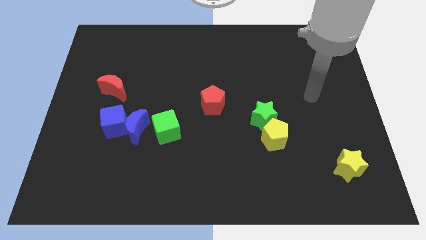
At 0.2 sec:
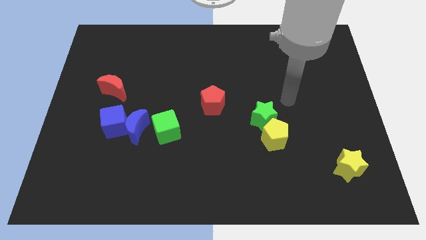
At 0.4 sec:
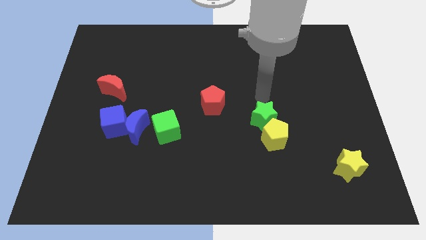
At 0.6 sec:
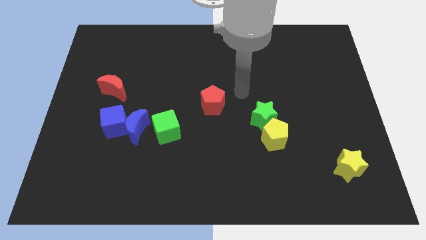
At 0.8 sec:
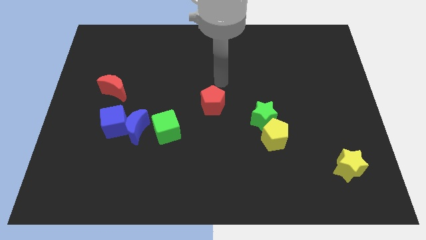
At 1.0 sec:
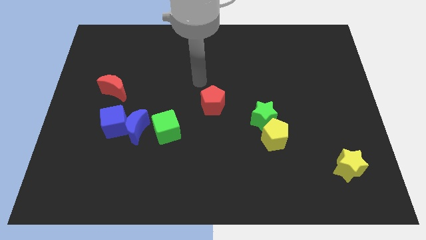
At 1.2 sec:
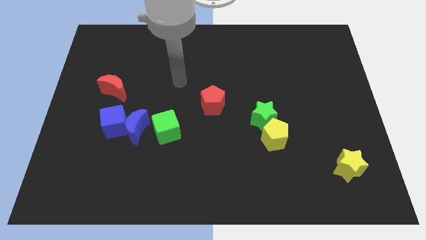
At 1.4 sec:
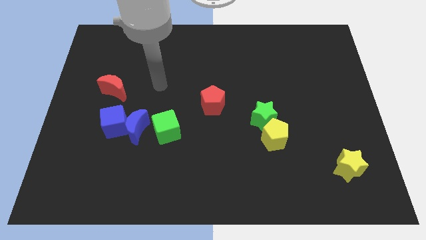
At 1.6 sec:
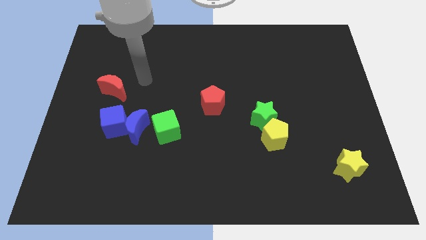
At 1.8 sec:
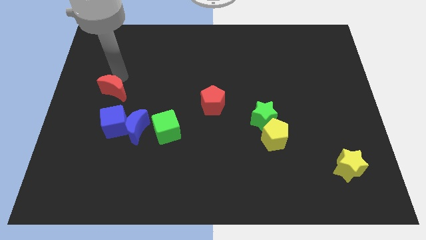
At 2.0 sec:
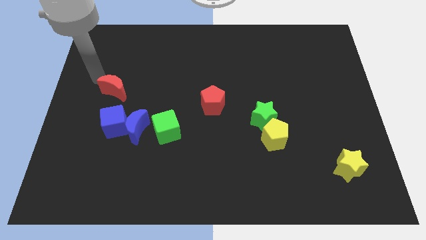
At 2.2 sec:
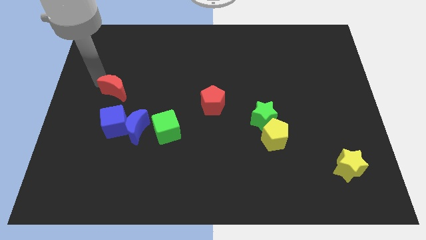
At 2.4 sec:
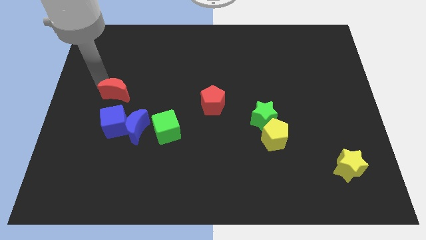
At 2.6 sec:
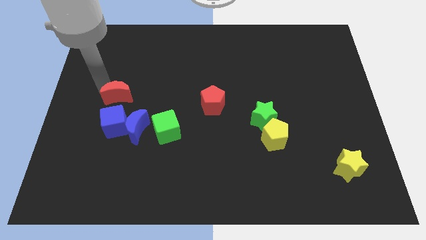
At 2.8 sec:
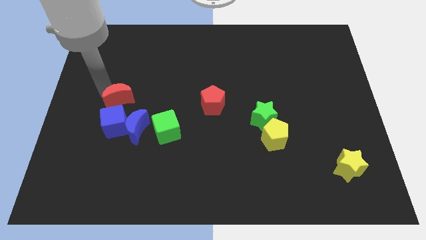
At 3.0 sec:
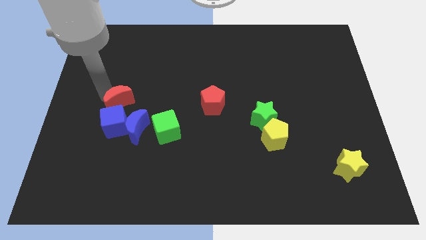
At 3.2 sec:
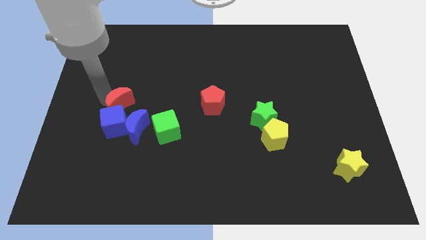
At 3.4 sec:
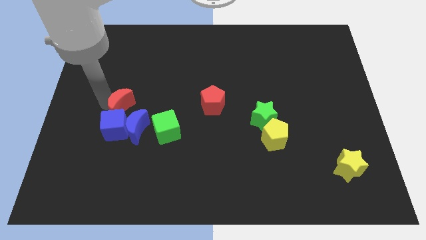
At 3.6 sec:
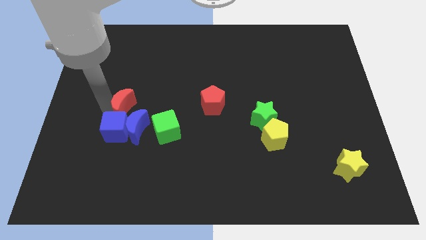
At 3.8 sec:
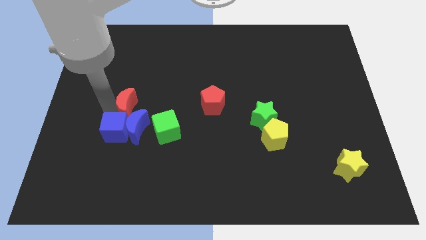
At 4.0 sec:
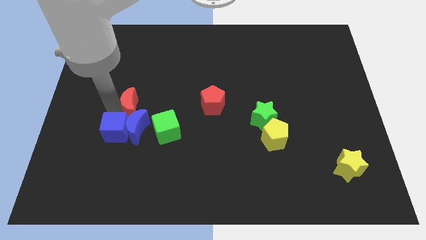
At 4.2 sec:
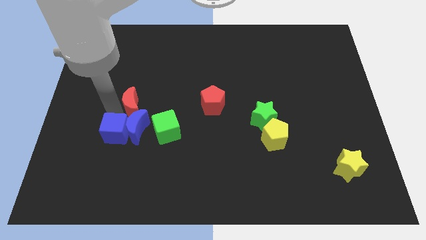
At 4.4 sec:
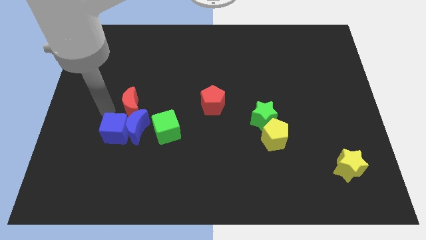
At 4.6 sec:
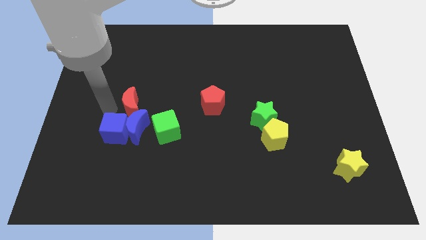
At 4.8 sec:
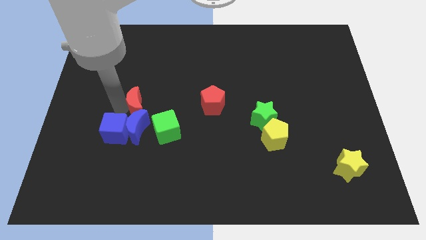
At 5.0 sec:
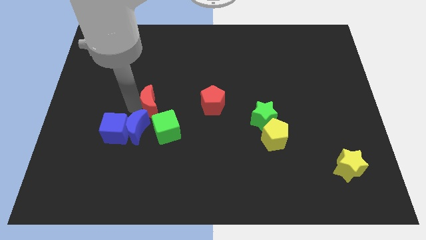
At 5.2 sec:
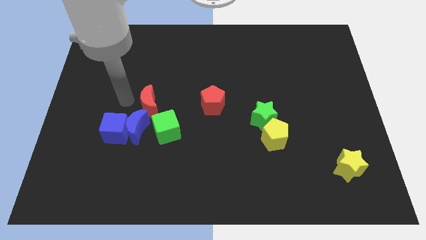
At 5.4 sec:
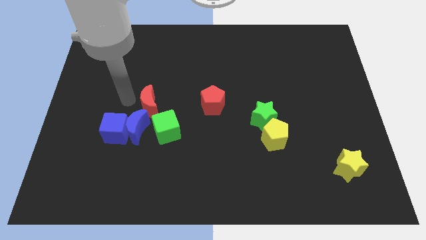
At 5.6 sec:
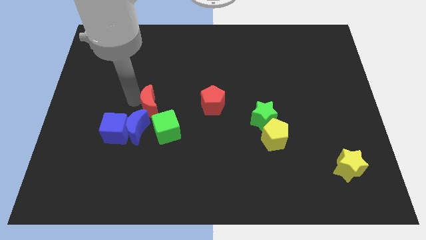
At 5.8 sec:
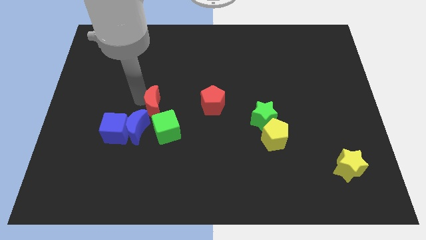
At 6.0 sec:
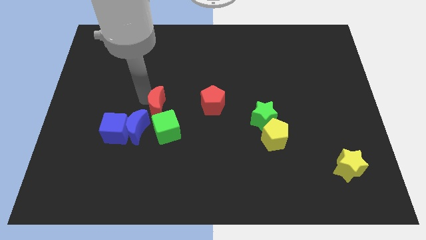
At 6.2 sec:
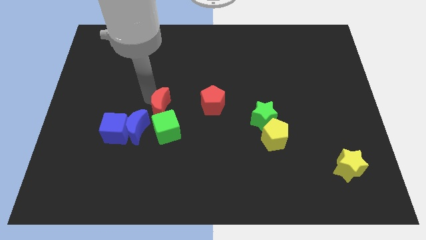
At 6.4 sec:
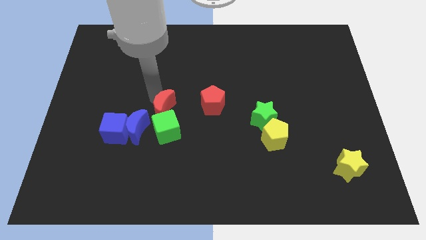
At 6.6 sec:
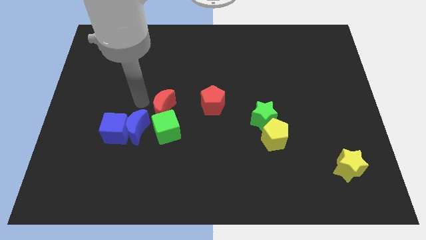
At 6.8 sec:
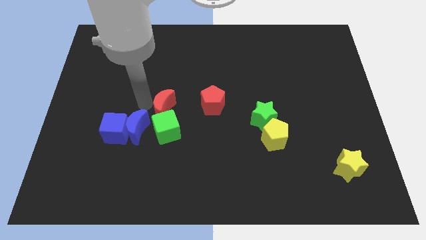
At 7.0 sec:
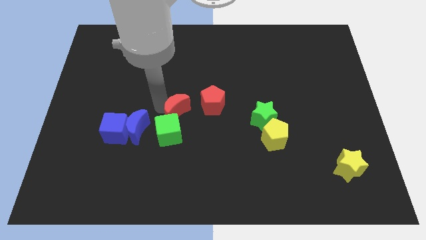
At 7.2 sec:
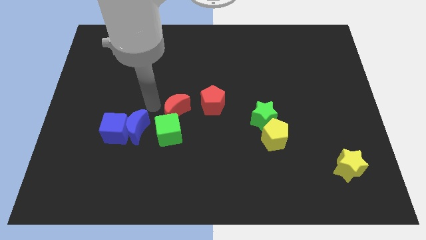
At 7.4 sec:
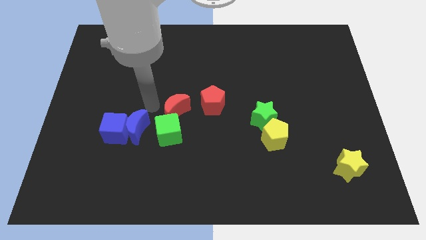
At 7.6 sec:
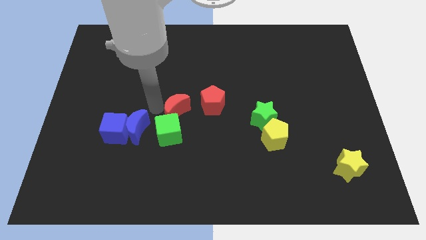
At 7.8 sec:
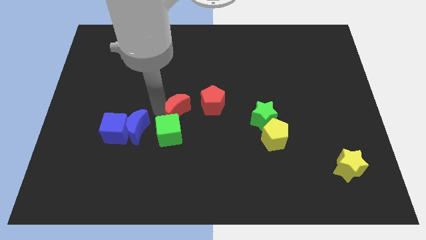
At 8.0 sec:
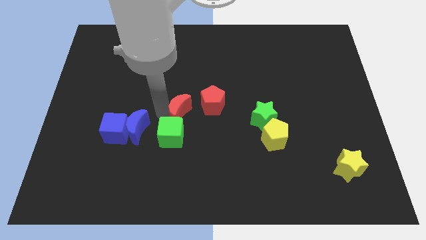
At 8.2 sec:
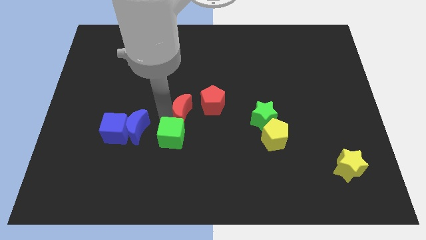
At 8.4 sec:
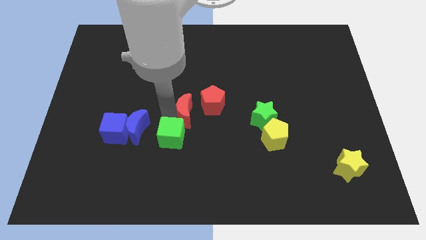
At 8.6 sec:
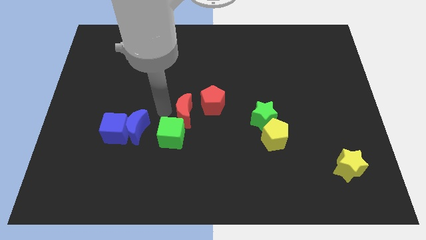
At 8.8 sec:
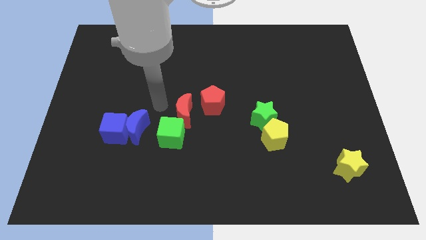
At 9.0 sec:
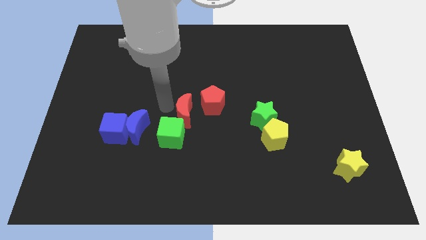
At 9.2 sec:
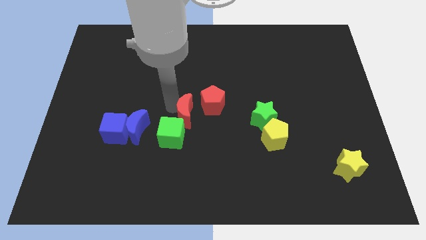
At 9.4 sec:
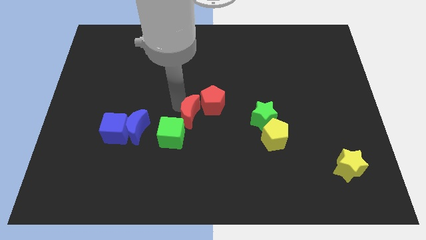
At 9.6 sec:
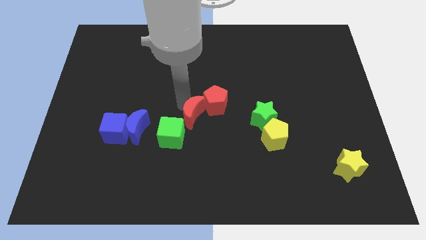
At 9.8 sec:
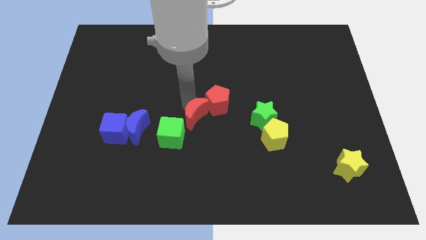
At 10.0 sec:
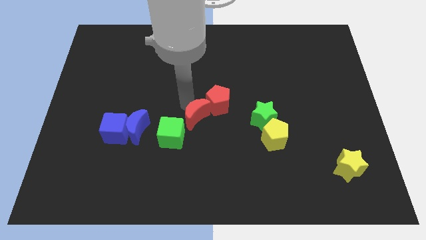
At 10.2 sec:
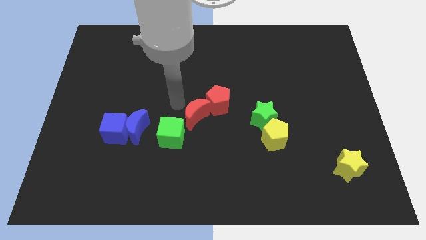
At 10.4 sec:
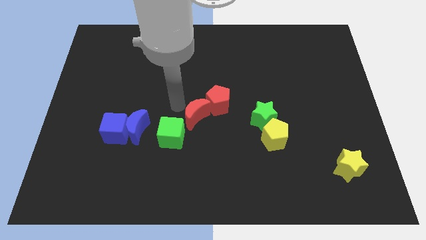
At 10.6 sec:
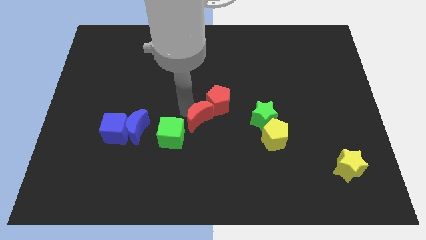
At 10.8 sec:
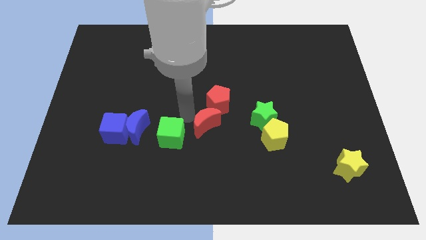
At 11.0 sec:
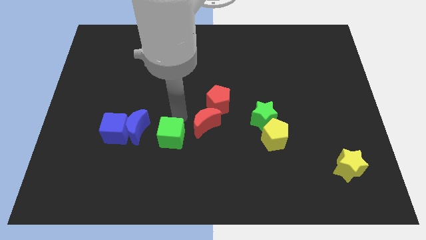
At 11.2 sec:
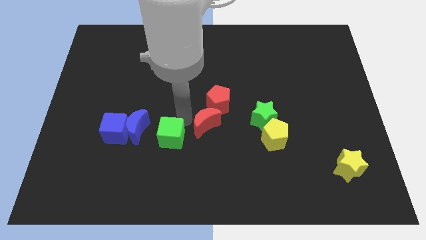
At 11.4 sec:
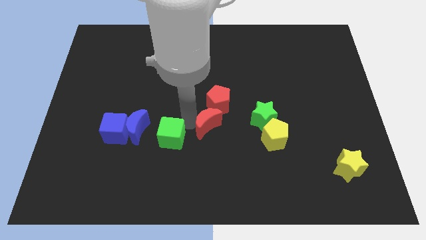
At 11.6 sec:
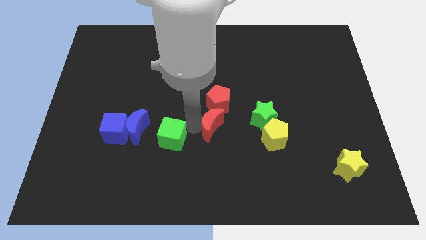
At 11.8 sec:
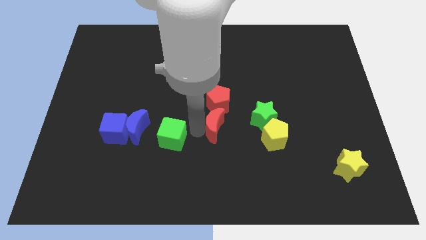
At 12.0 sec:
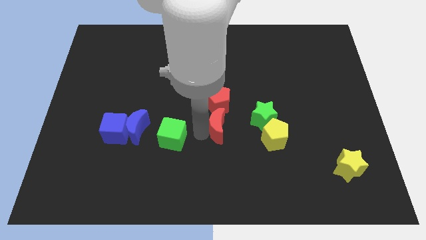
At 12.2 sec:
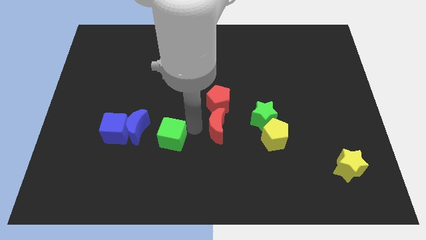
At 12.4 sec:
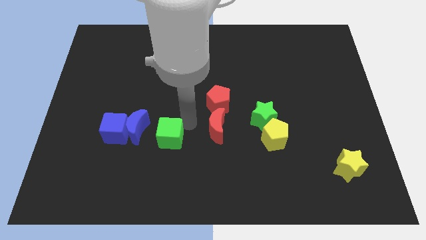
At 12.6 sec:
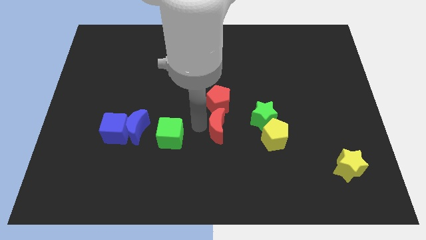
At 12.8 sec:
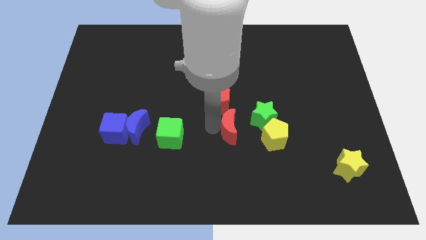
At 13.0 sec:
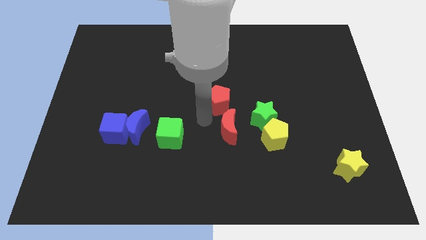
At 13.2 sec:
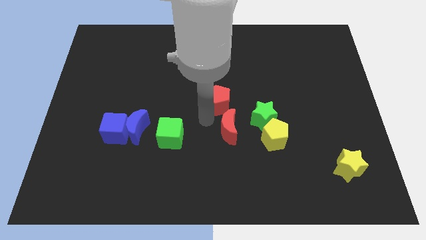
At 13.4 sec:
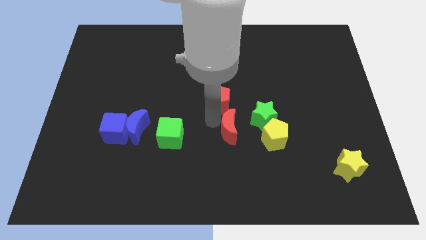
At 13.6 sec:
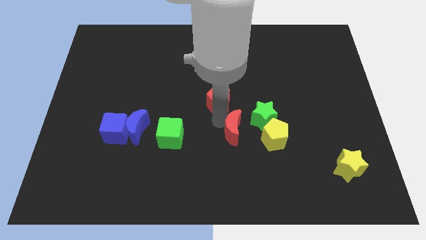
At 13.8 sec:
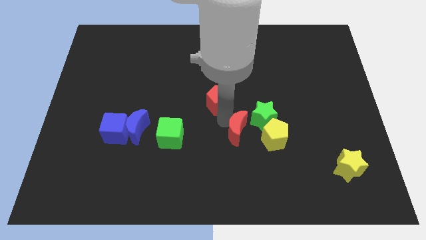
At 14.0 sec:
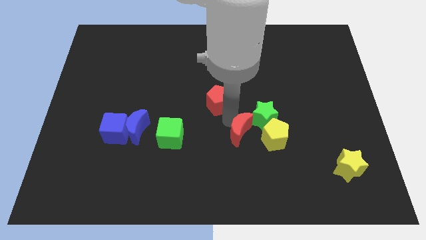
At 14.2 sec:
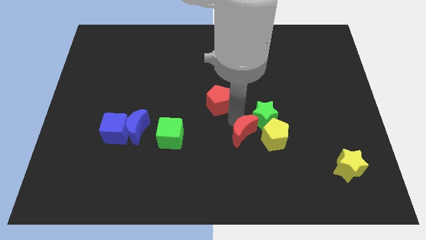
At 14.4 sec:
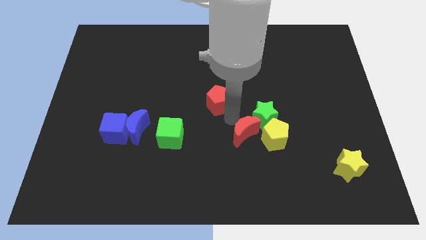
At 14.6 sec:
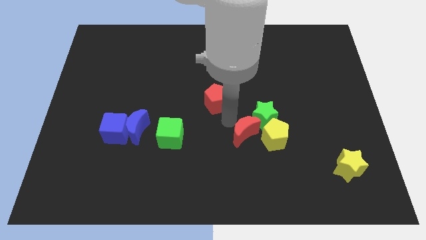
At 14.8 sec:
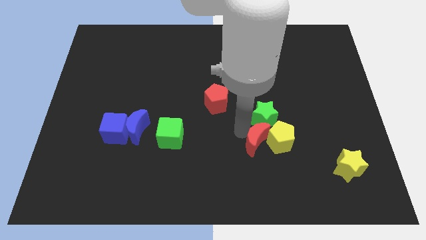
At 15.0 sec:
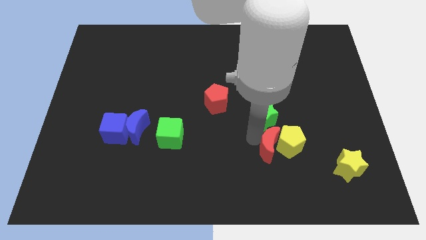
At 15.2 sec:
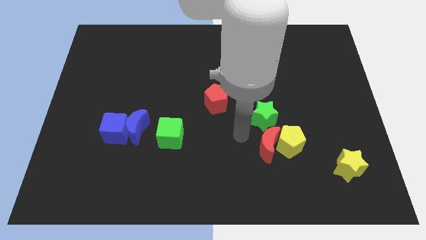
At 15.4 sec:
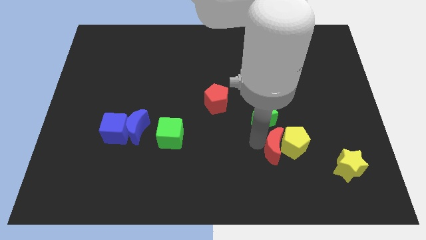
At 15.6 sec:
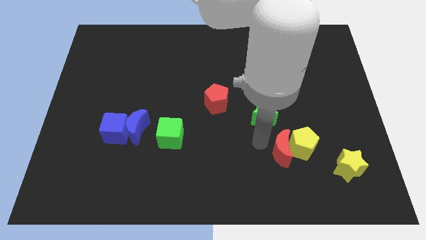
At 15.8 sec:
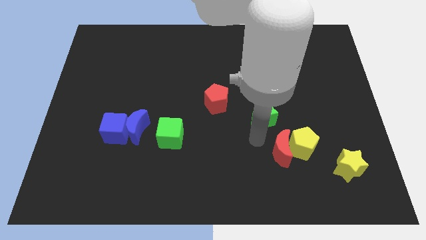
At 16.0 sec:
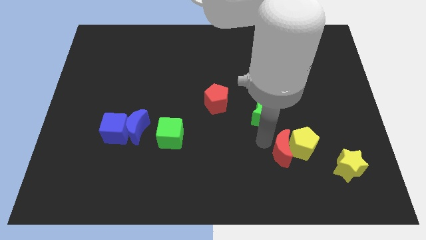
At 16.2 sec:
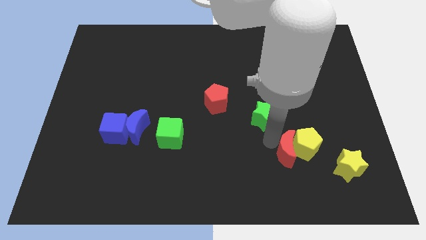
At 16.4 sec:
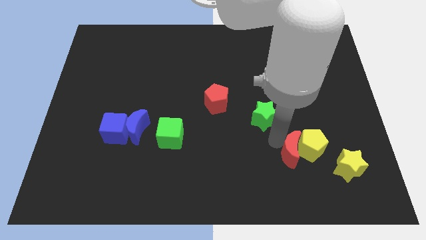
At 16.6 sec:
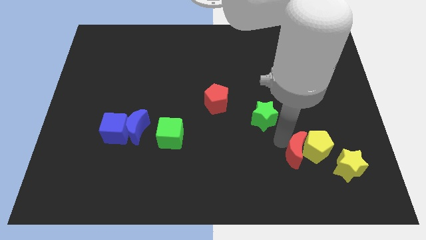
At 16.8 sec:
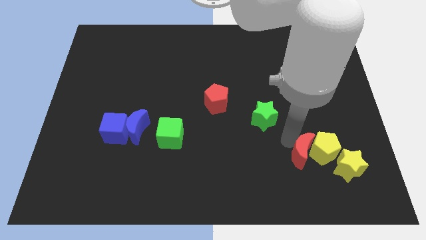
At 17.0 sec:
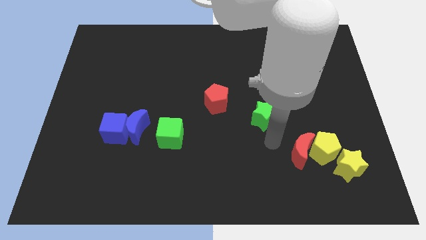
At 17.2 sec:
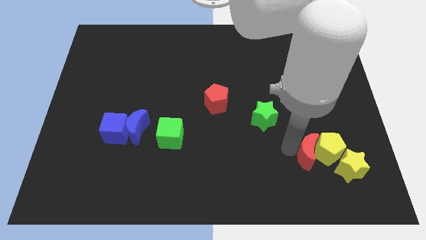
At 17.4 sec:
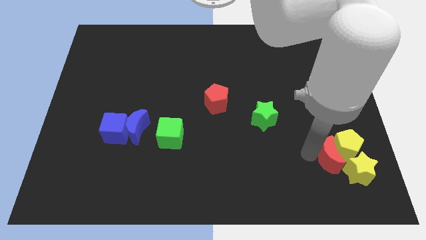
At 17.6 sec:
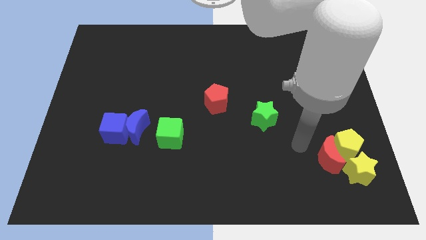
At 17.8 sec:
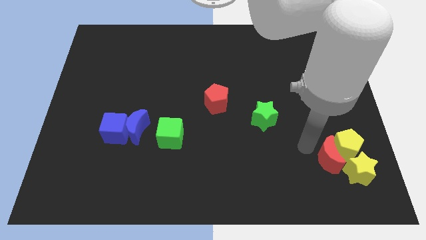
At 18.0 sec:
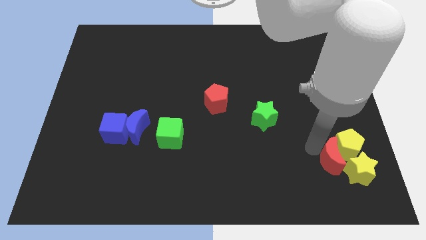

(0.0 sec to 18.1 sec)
push the red moon to the yellow star
